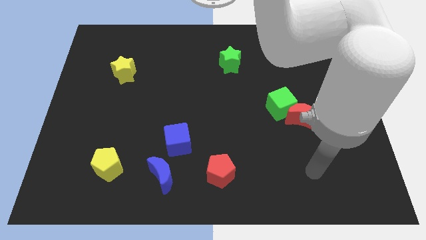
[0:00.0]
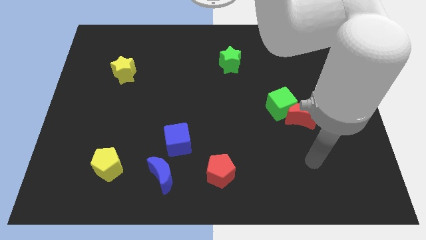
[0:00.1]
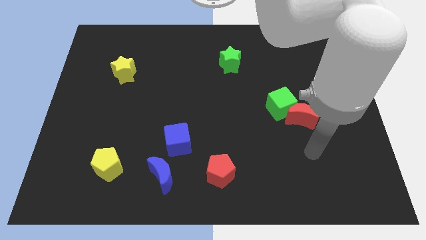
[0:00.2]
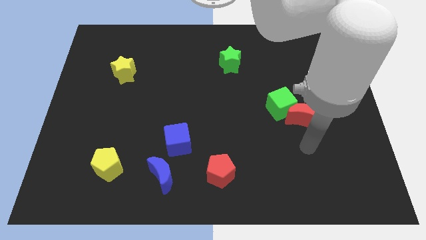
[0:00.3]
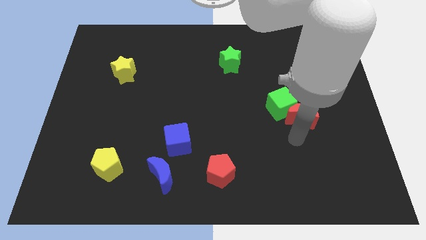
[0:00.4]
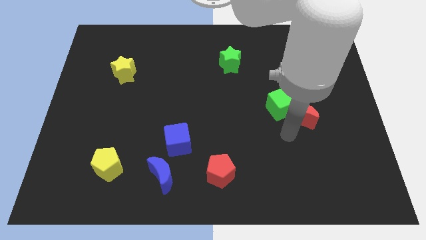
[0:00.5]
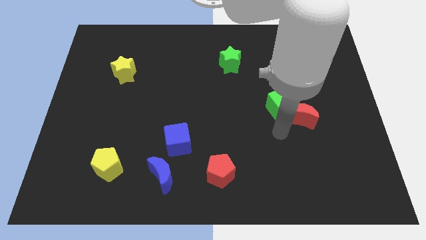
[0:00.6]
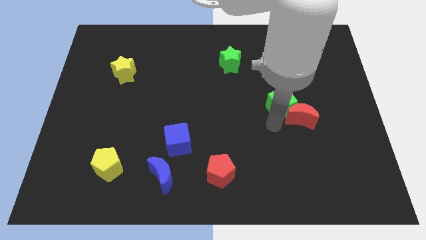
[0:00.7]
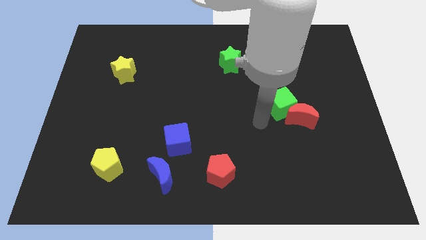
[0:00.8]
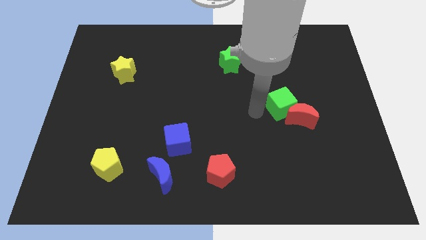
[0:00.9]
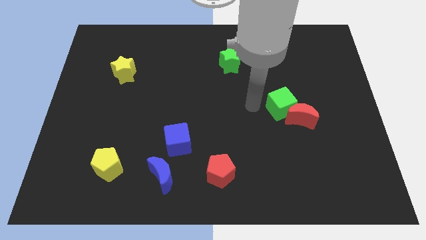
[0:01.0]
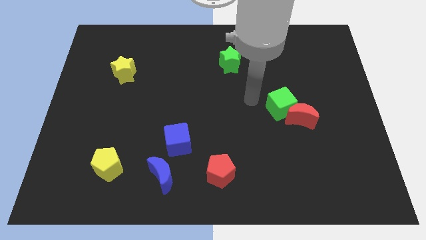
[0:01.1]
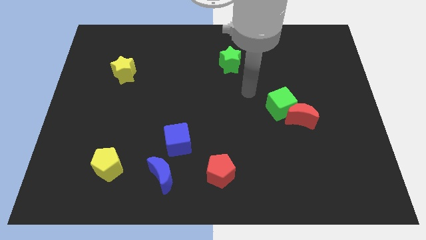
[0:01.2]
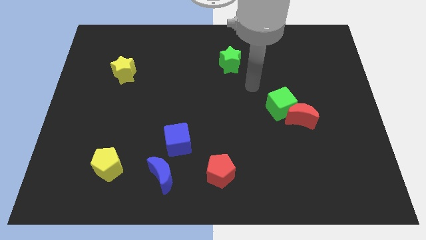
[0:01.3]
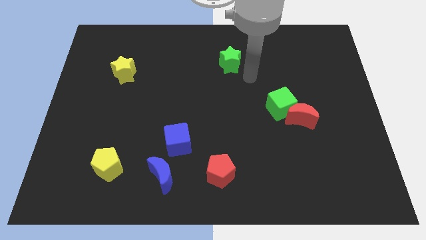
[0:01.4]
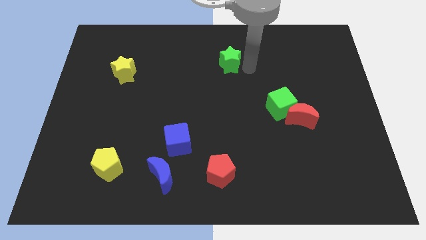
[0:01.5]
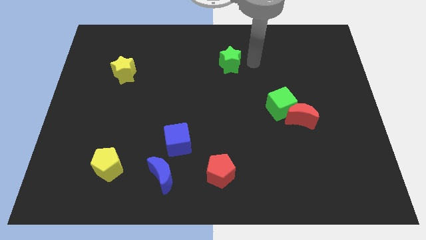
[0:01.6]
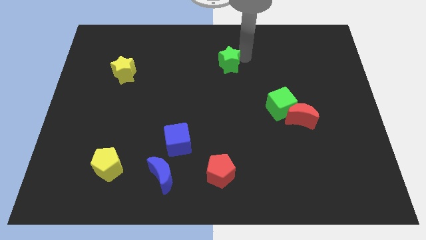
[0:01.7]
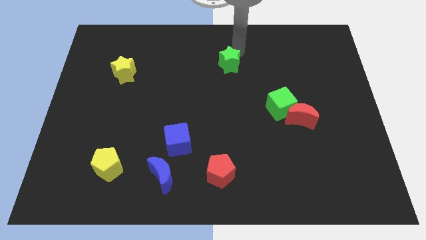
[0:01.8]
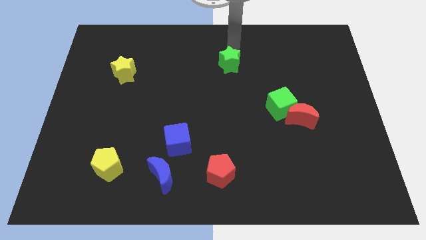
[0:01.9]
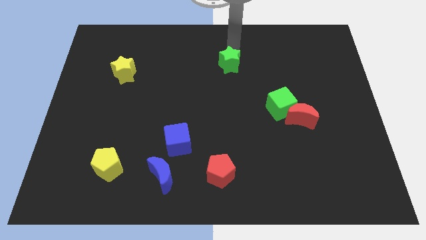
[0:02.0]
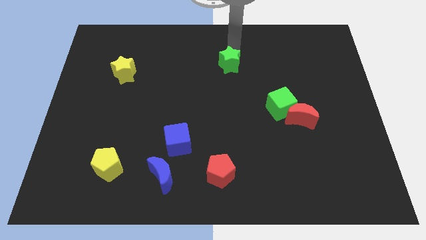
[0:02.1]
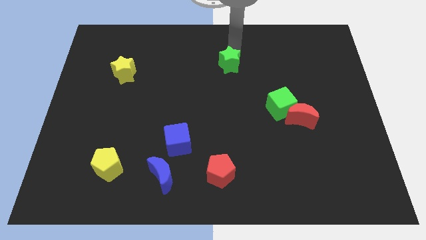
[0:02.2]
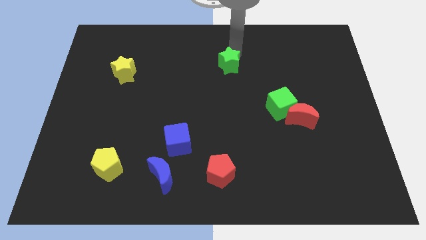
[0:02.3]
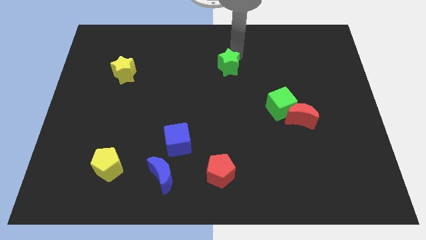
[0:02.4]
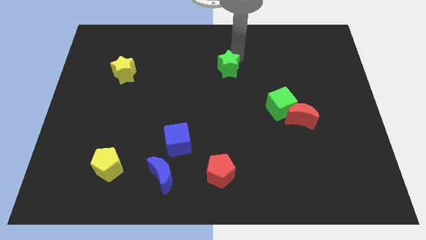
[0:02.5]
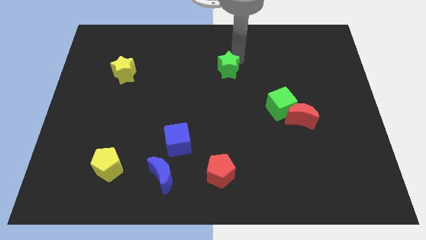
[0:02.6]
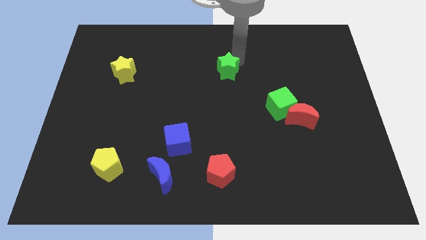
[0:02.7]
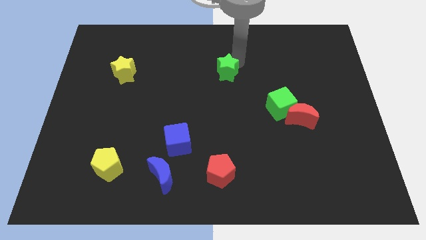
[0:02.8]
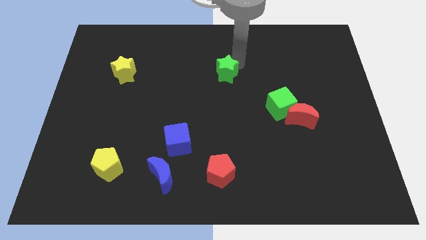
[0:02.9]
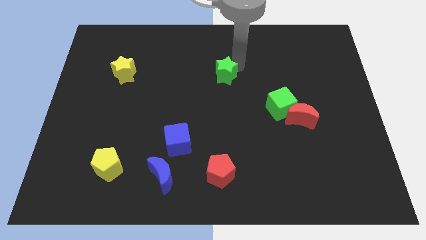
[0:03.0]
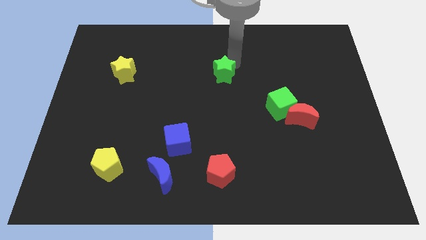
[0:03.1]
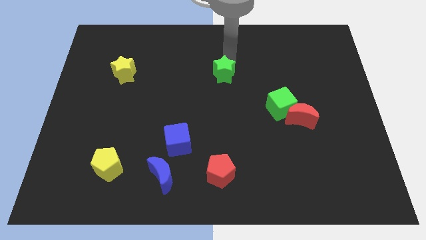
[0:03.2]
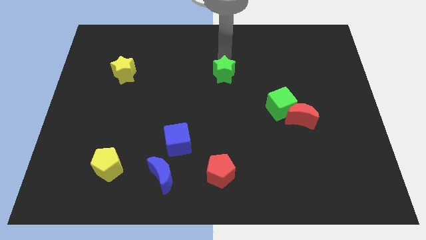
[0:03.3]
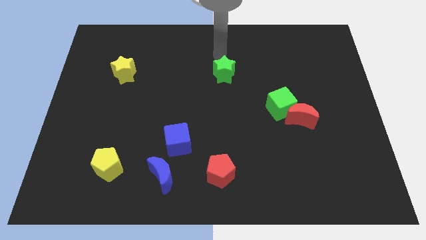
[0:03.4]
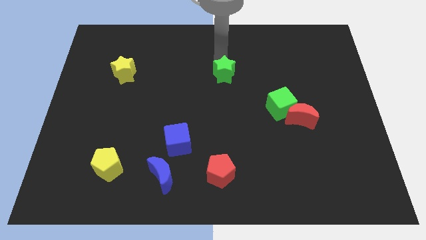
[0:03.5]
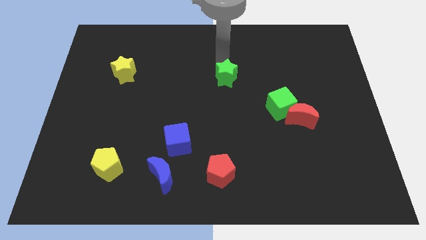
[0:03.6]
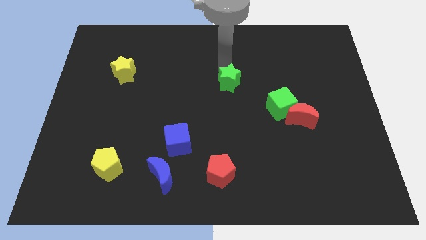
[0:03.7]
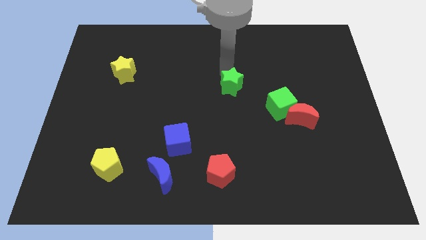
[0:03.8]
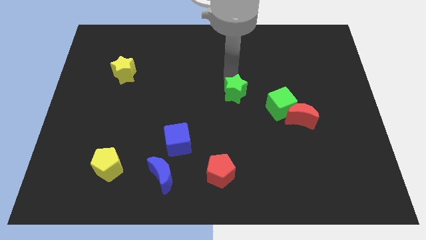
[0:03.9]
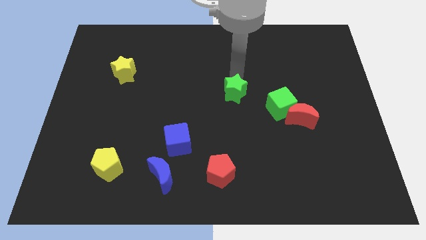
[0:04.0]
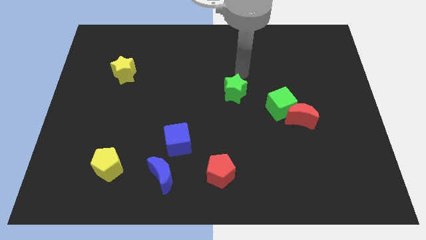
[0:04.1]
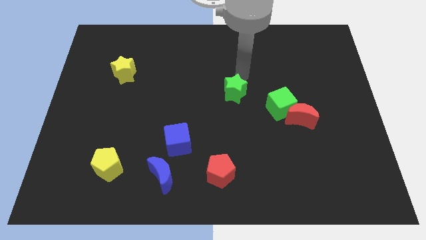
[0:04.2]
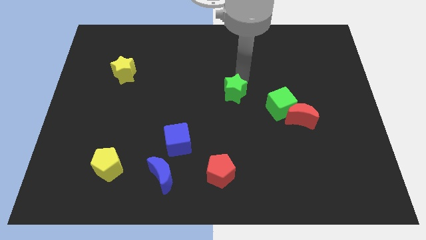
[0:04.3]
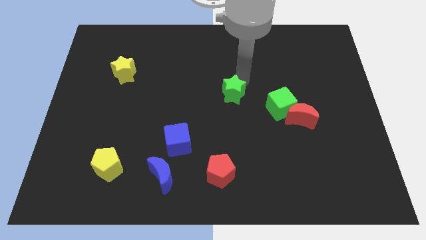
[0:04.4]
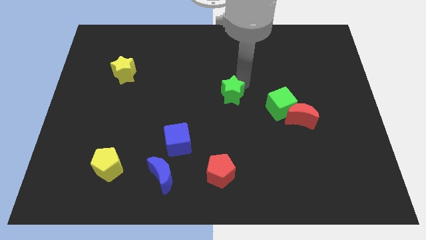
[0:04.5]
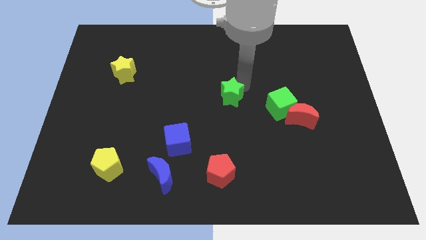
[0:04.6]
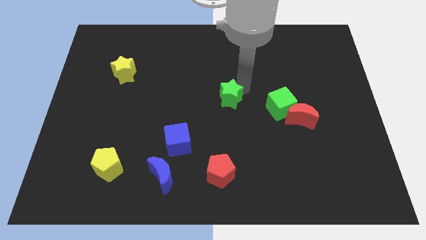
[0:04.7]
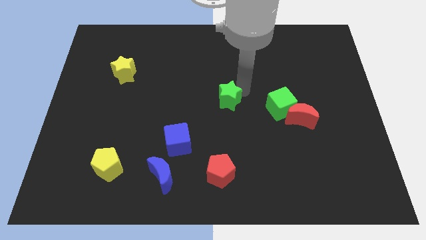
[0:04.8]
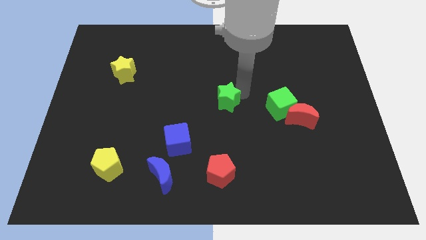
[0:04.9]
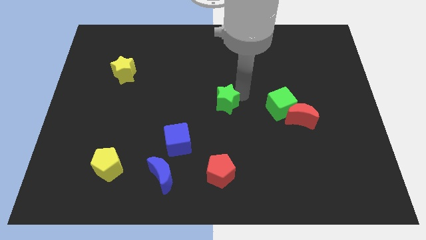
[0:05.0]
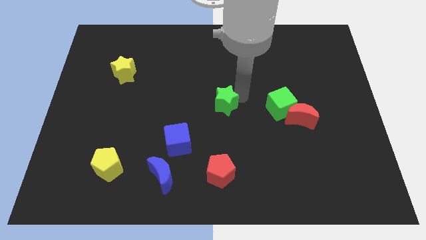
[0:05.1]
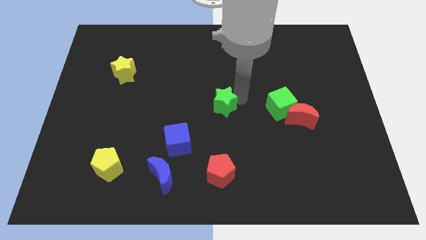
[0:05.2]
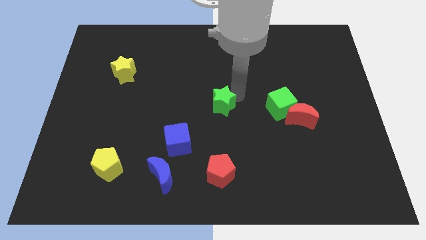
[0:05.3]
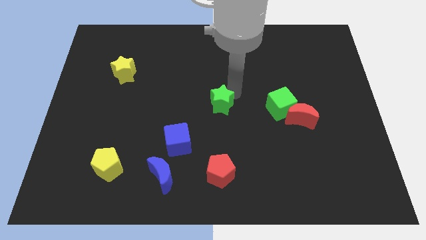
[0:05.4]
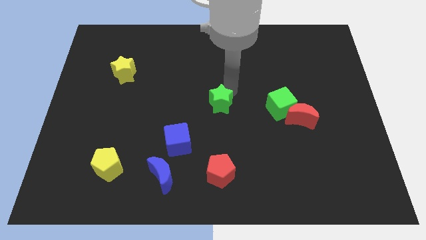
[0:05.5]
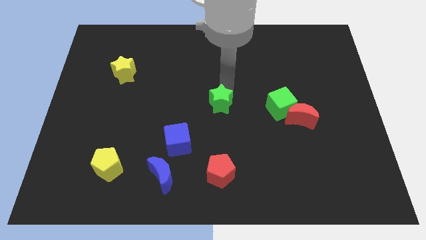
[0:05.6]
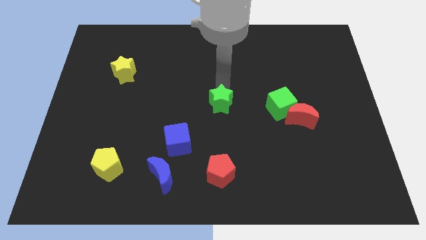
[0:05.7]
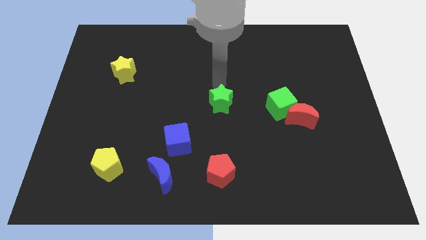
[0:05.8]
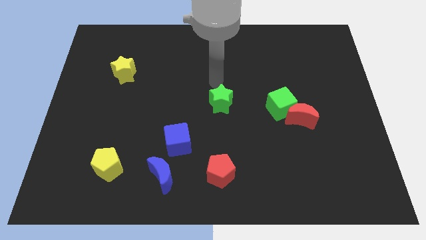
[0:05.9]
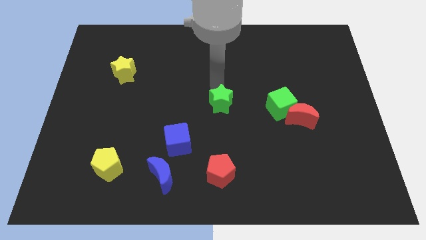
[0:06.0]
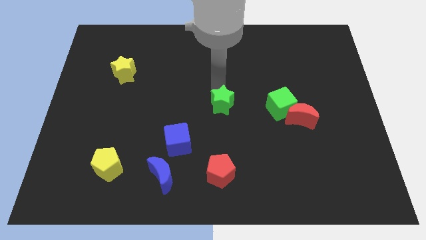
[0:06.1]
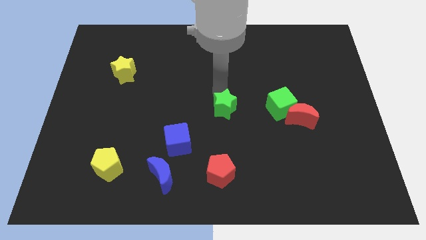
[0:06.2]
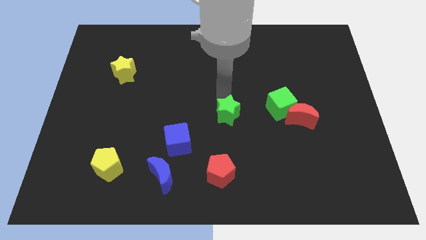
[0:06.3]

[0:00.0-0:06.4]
slide the green star above the red pentagon
